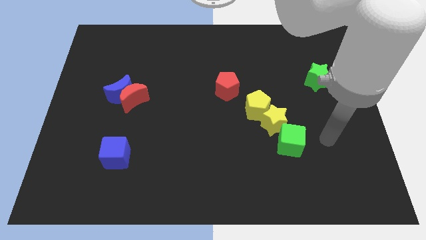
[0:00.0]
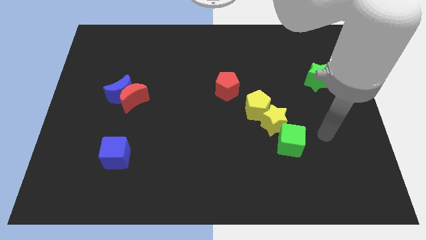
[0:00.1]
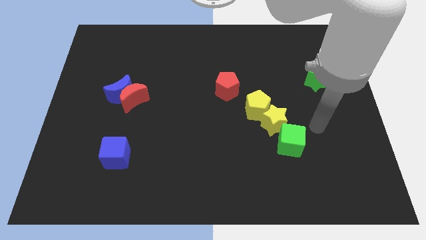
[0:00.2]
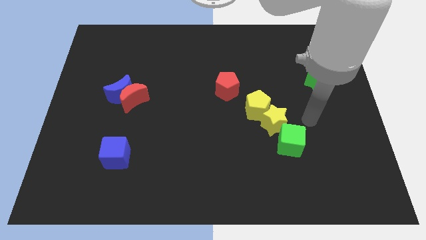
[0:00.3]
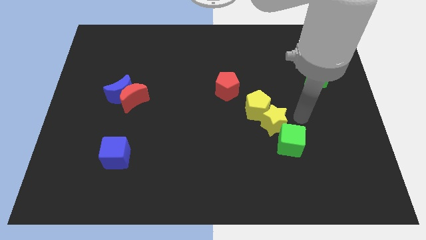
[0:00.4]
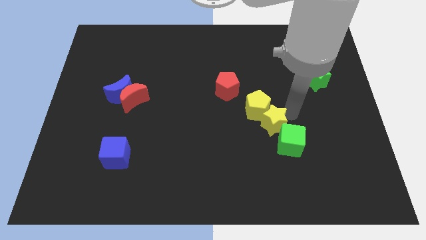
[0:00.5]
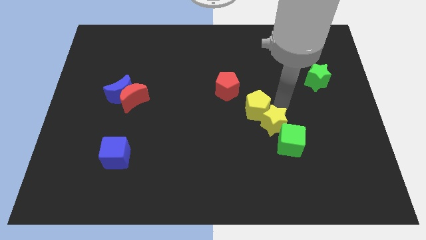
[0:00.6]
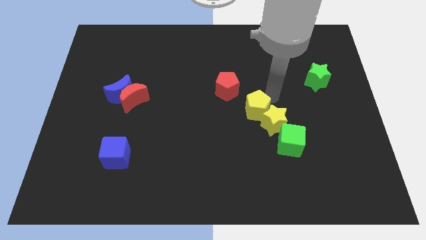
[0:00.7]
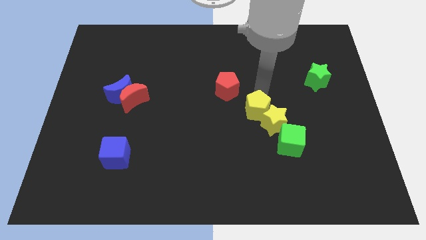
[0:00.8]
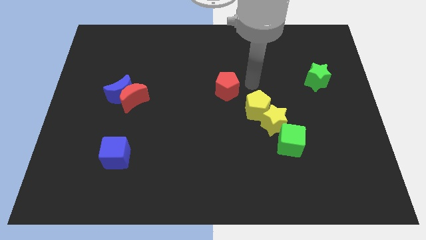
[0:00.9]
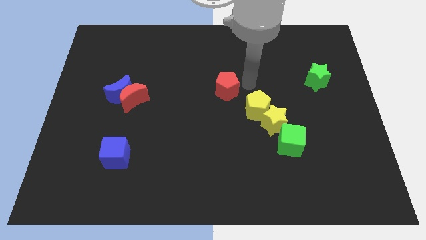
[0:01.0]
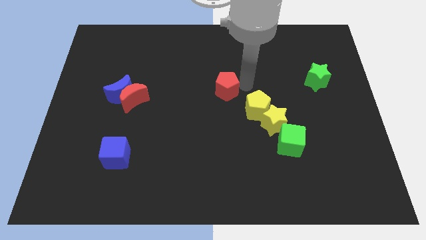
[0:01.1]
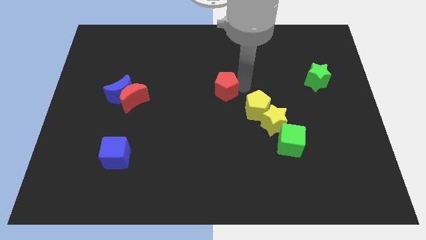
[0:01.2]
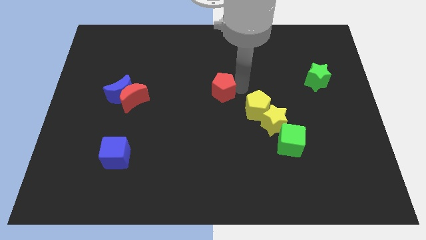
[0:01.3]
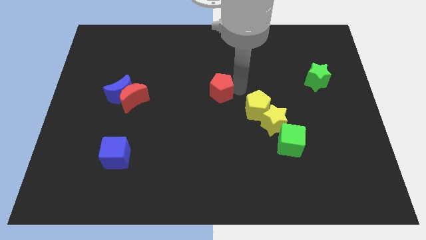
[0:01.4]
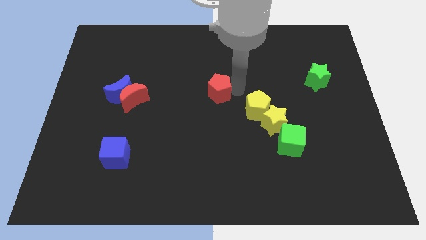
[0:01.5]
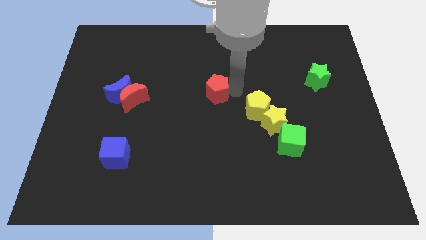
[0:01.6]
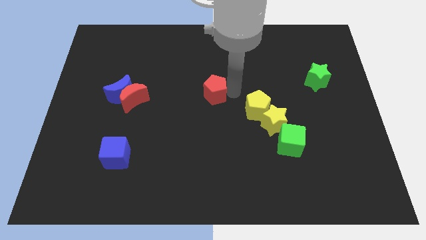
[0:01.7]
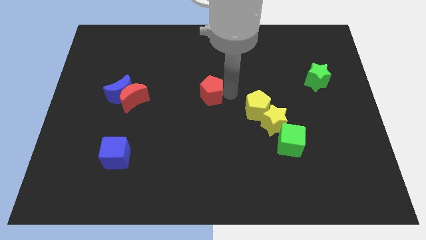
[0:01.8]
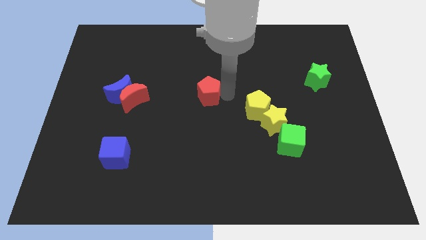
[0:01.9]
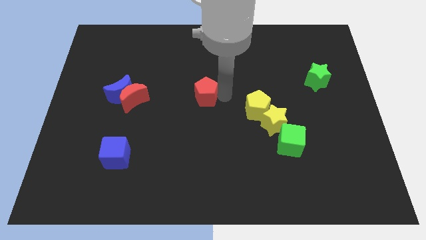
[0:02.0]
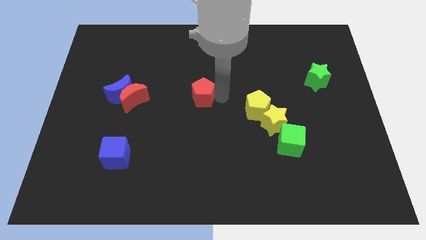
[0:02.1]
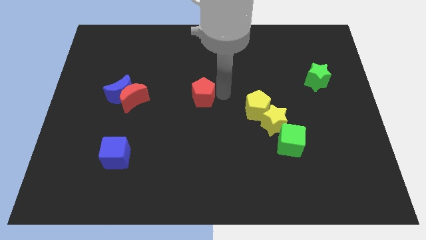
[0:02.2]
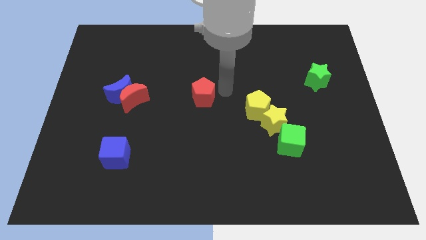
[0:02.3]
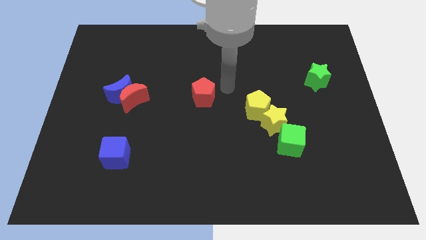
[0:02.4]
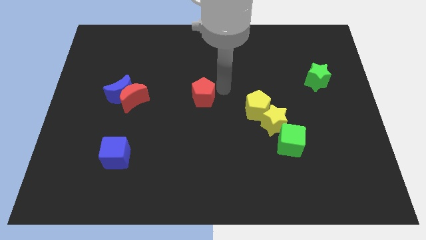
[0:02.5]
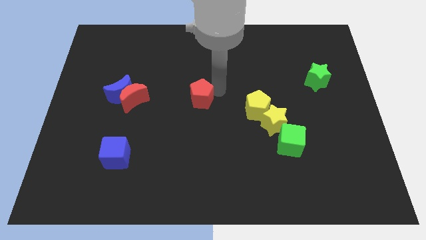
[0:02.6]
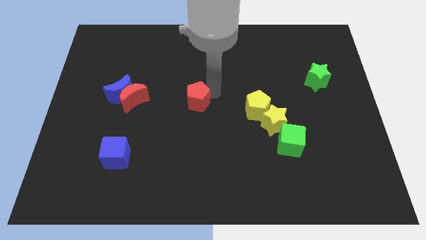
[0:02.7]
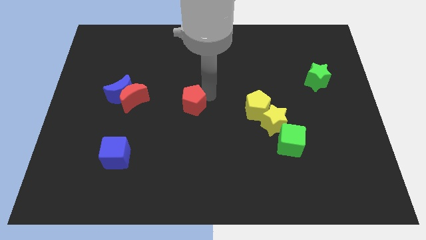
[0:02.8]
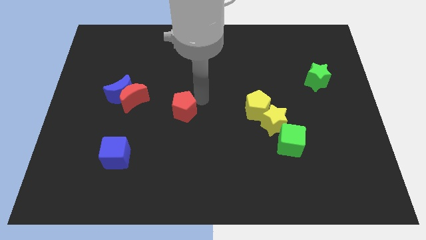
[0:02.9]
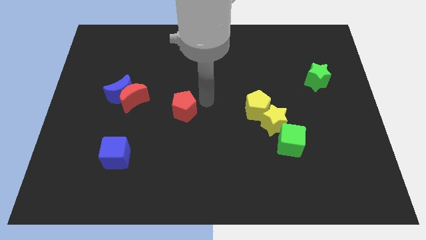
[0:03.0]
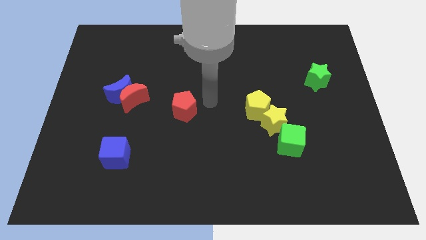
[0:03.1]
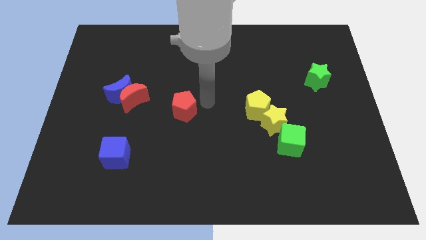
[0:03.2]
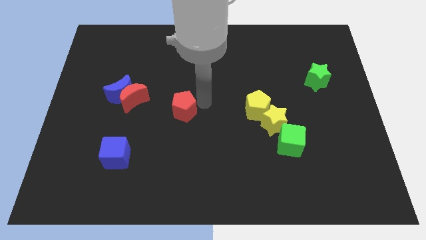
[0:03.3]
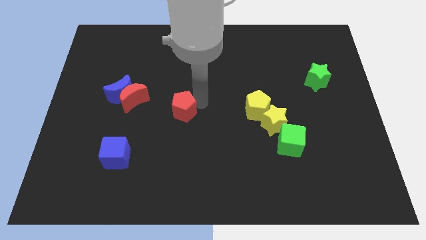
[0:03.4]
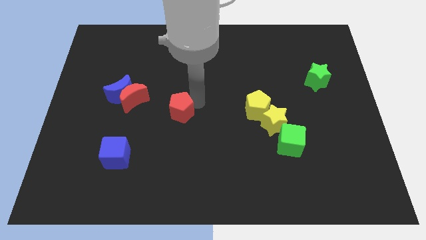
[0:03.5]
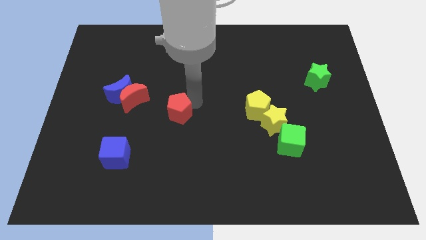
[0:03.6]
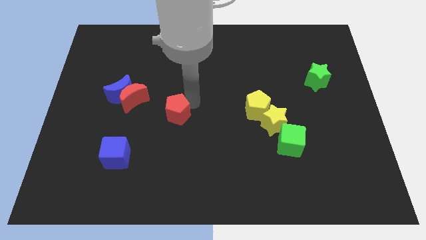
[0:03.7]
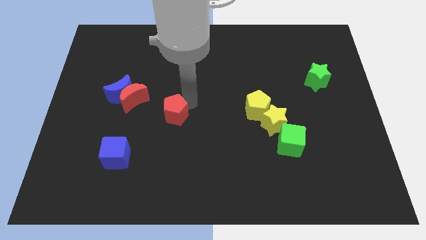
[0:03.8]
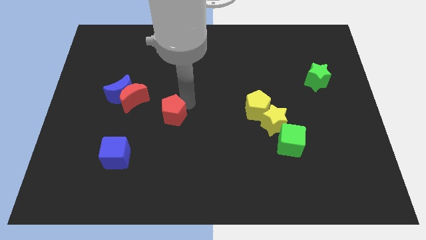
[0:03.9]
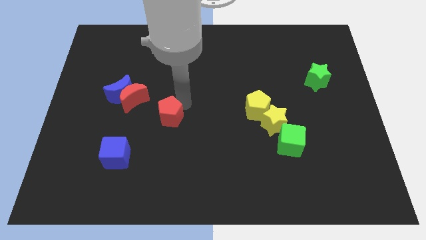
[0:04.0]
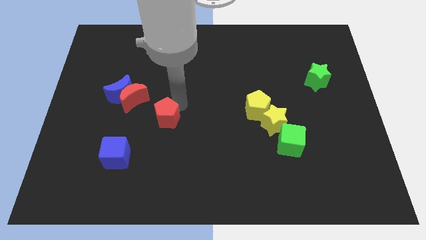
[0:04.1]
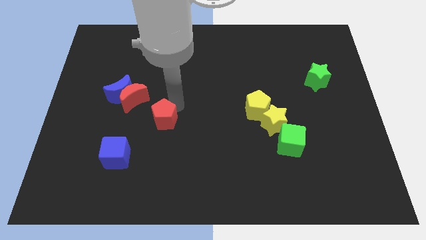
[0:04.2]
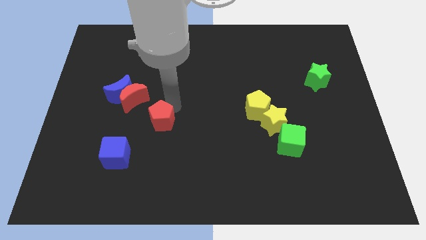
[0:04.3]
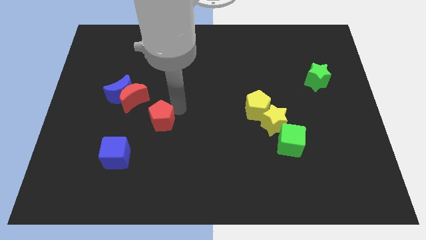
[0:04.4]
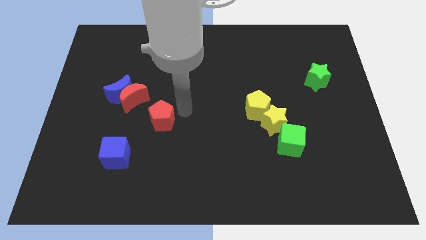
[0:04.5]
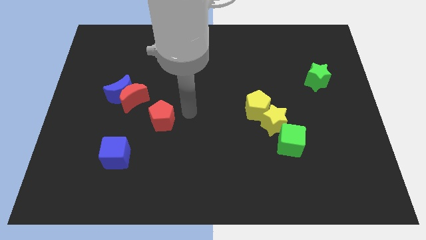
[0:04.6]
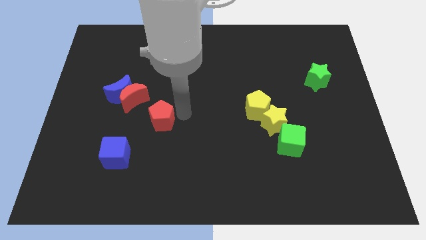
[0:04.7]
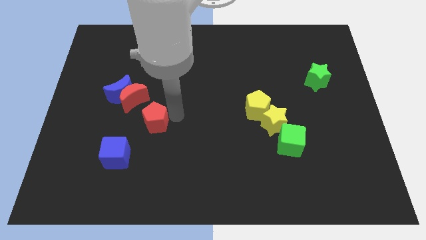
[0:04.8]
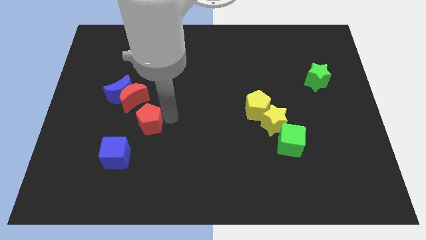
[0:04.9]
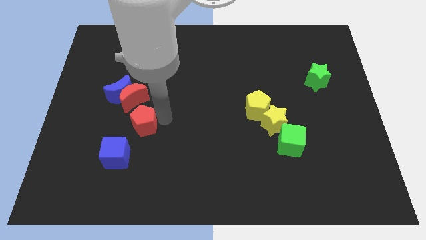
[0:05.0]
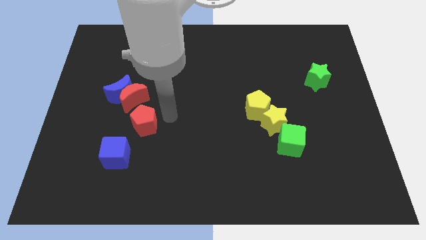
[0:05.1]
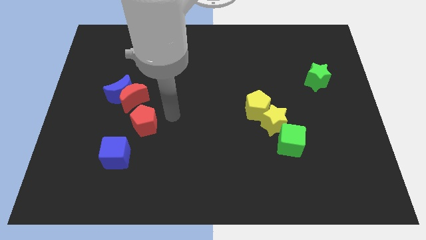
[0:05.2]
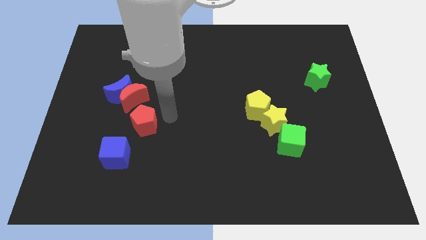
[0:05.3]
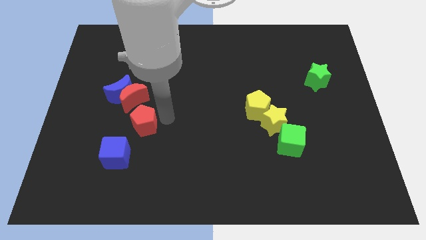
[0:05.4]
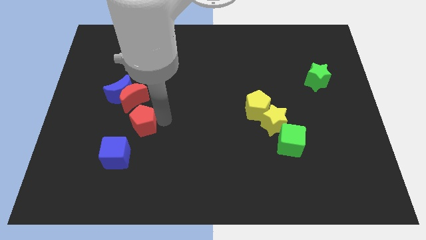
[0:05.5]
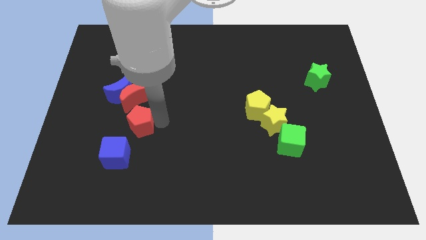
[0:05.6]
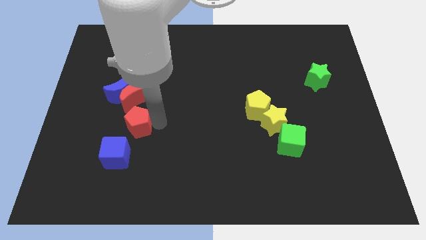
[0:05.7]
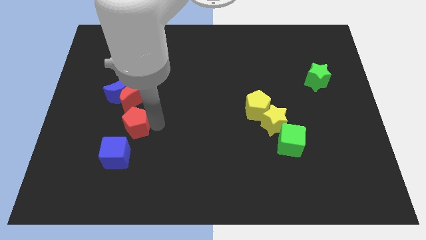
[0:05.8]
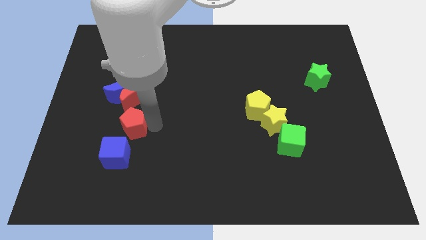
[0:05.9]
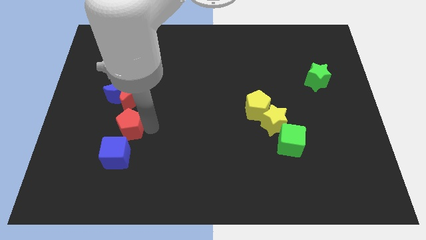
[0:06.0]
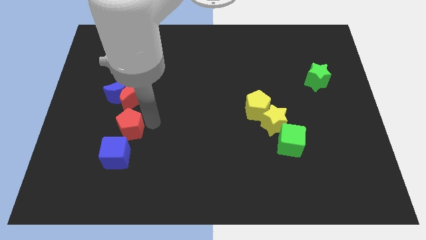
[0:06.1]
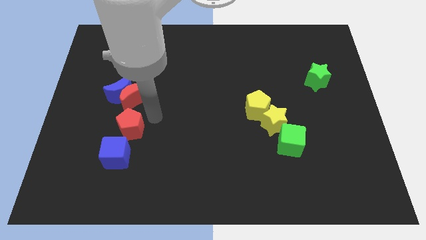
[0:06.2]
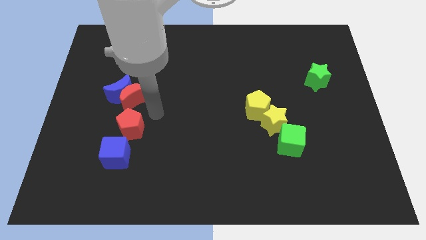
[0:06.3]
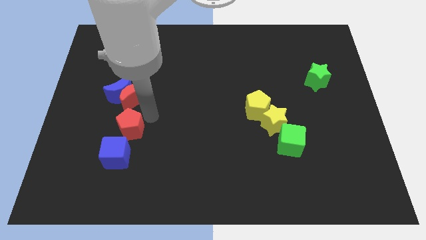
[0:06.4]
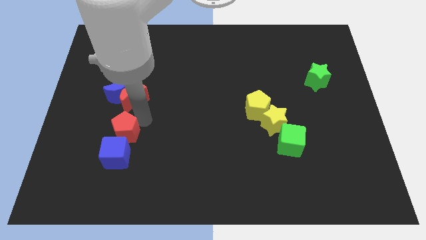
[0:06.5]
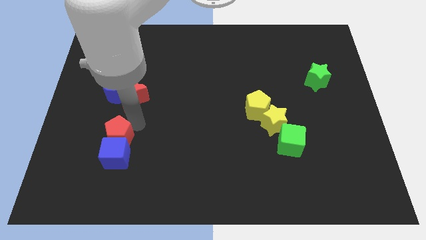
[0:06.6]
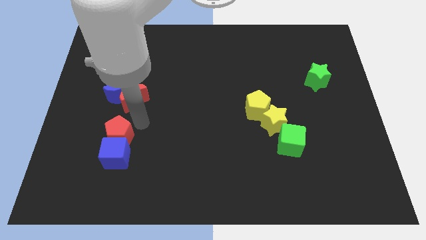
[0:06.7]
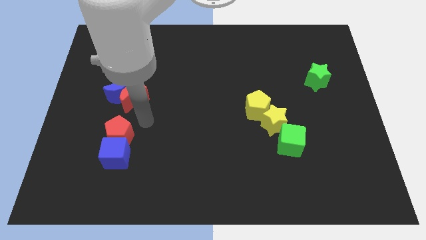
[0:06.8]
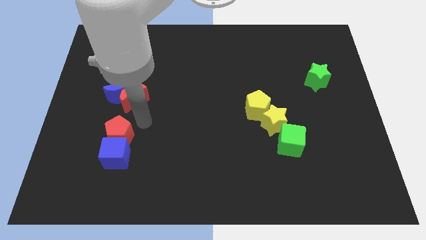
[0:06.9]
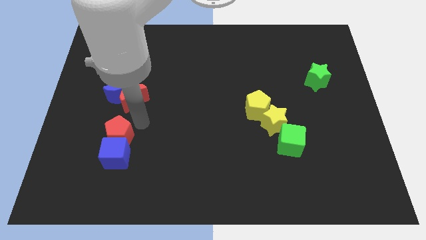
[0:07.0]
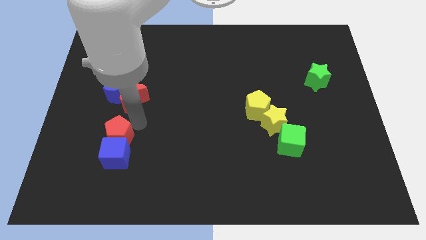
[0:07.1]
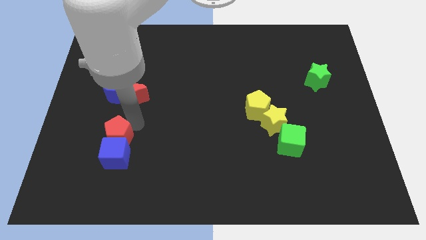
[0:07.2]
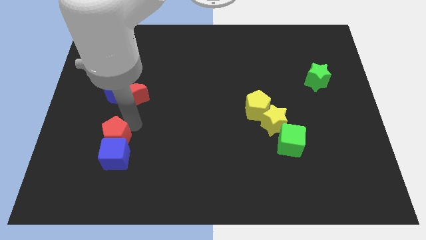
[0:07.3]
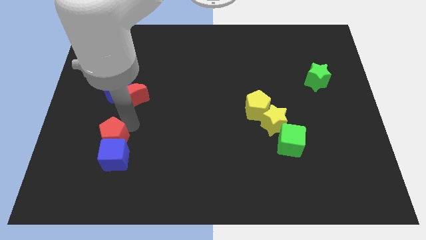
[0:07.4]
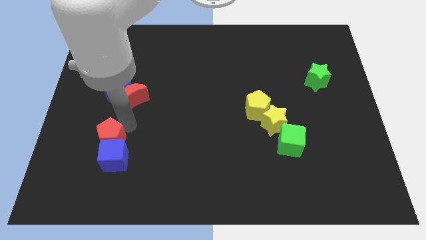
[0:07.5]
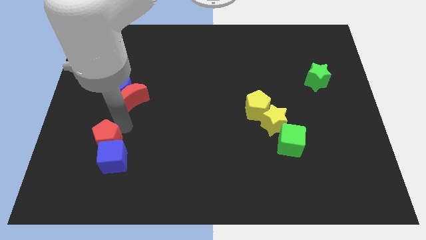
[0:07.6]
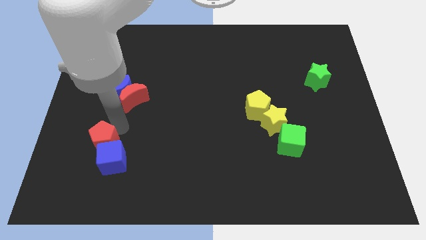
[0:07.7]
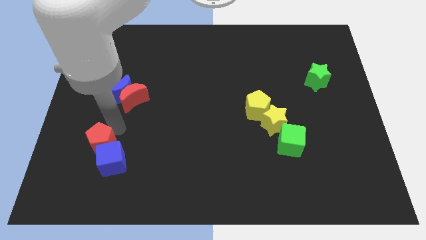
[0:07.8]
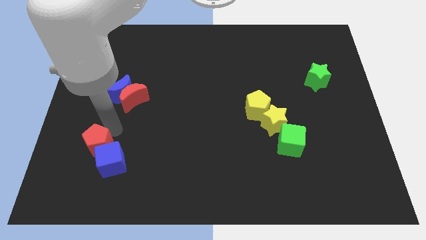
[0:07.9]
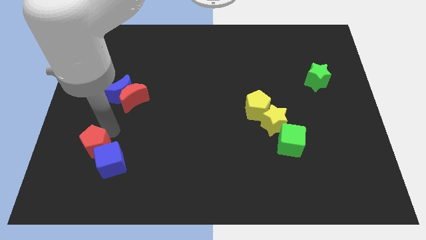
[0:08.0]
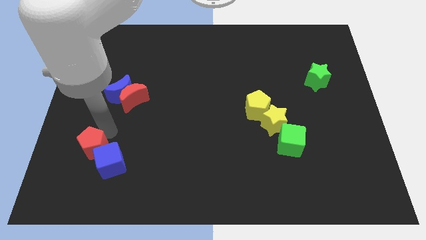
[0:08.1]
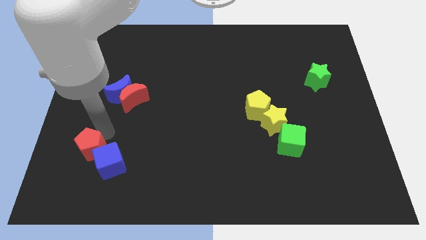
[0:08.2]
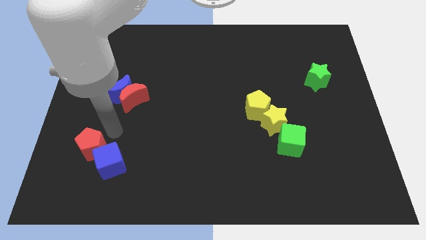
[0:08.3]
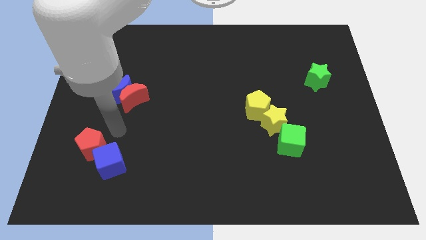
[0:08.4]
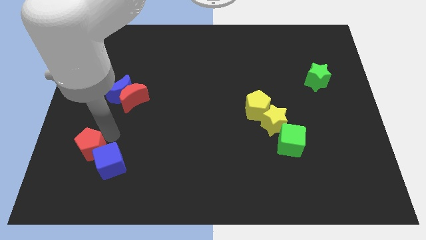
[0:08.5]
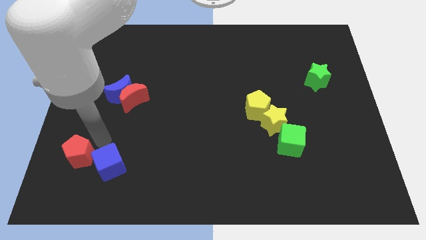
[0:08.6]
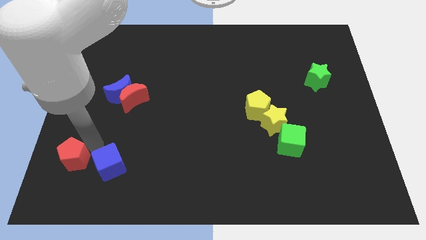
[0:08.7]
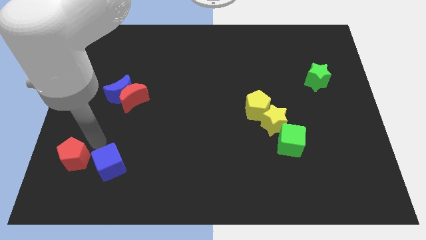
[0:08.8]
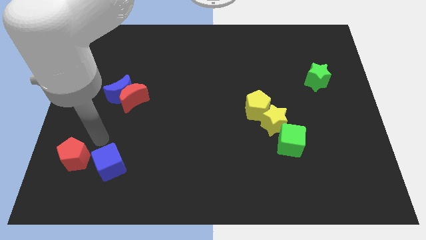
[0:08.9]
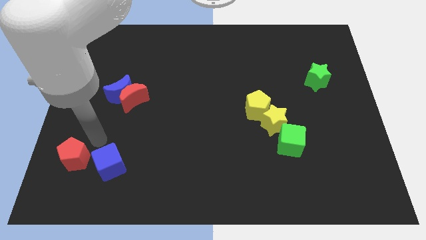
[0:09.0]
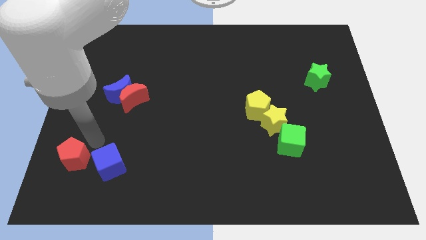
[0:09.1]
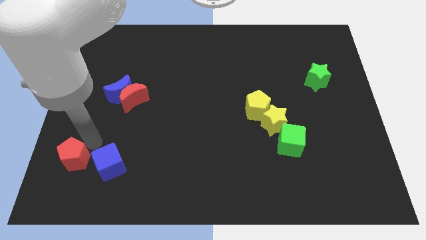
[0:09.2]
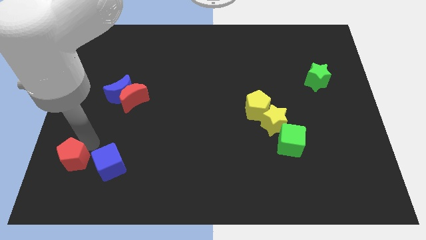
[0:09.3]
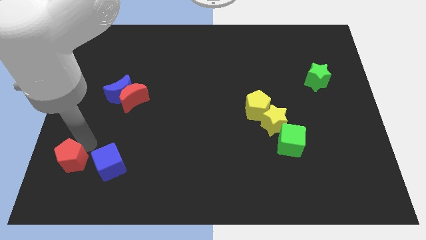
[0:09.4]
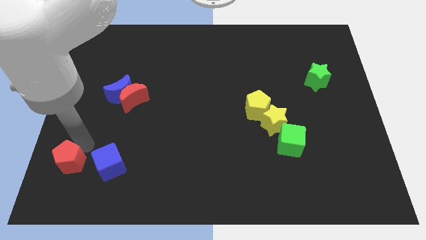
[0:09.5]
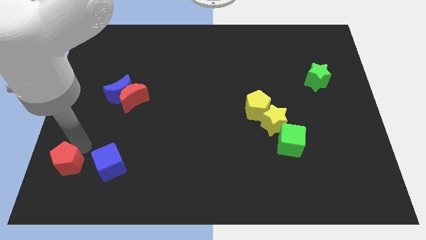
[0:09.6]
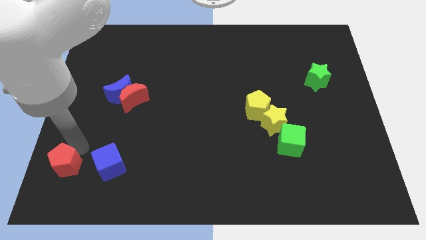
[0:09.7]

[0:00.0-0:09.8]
put the red pentagon to the bottom left
